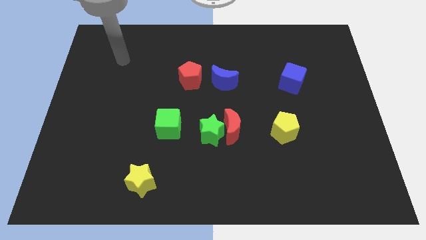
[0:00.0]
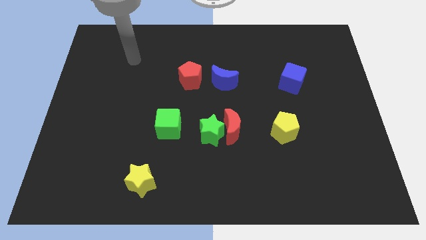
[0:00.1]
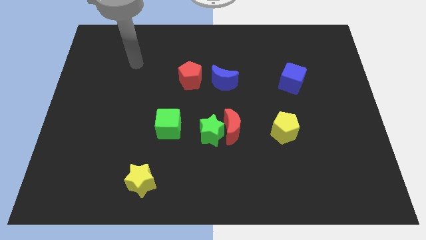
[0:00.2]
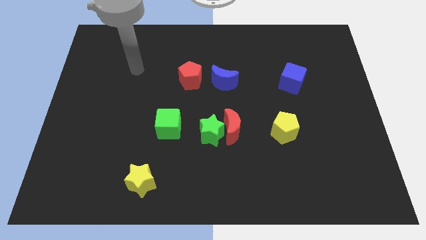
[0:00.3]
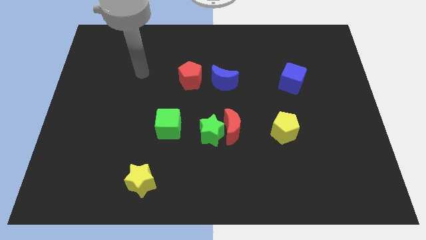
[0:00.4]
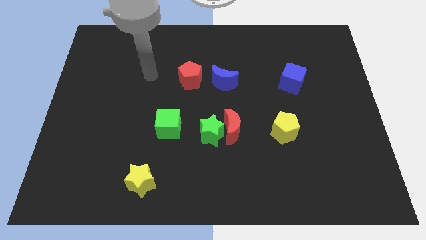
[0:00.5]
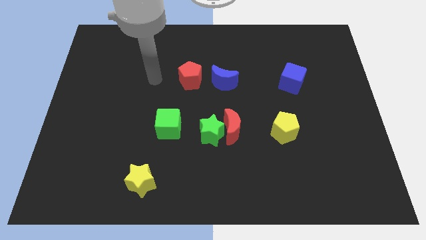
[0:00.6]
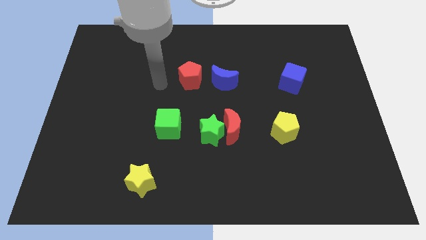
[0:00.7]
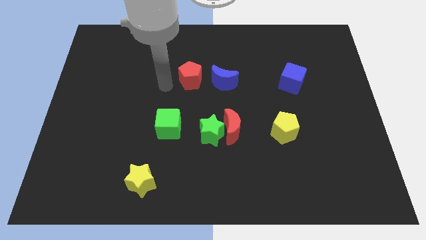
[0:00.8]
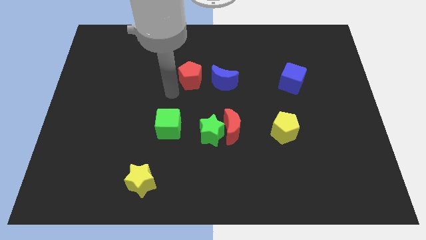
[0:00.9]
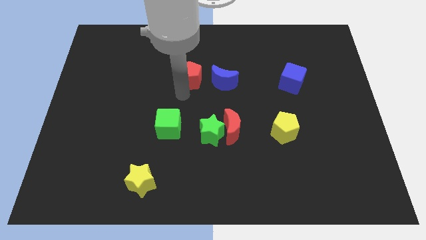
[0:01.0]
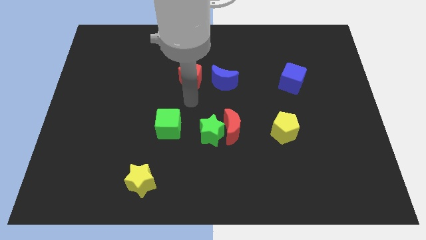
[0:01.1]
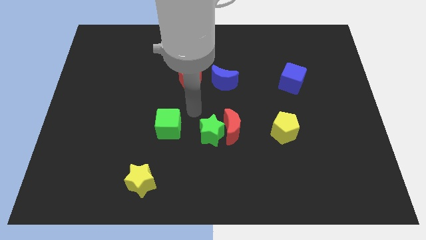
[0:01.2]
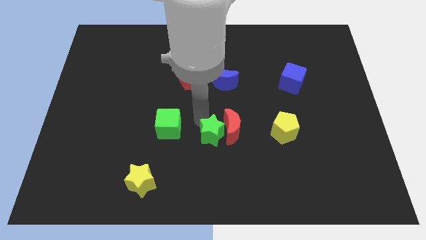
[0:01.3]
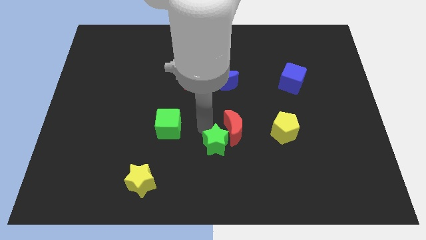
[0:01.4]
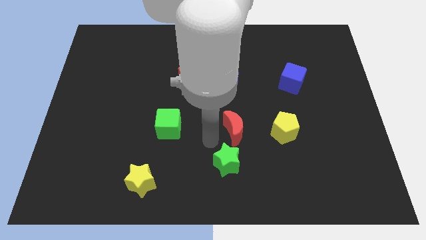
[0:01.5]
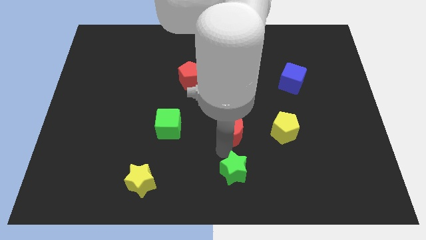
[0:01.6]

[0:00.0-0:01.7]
pull the red moon apart from the green star

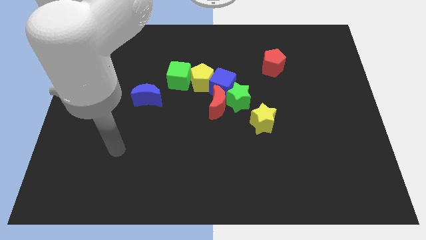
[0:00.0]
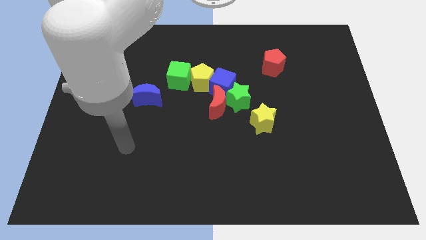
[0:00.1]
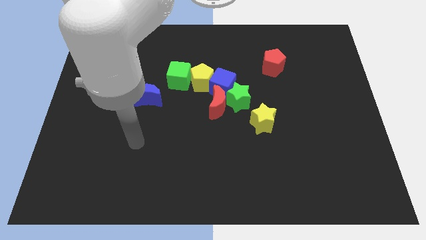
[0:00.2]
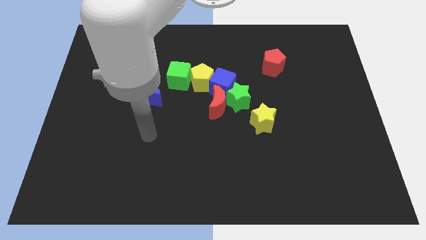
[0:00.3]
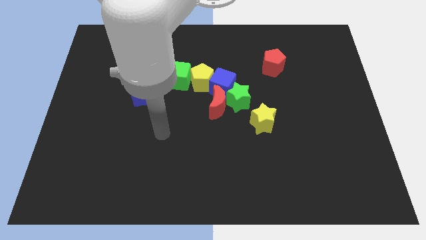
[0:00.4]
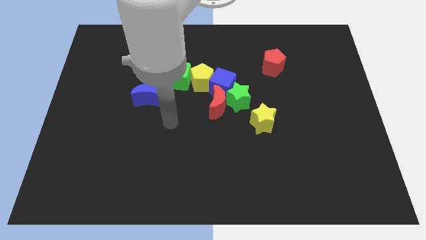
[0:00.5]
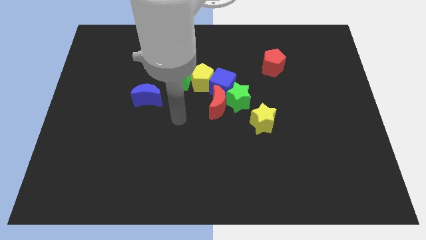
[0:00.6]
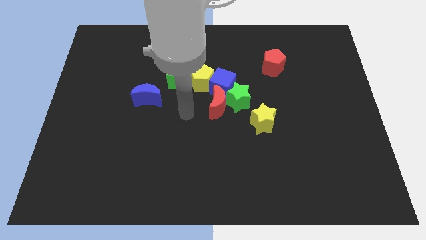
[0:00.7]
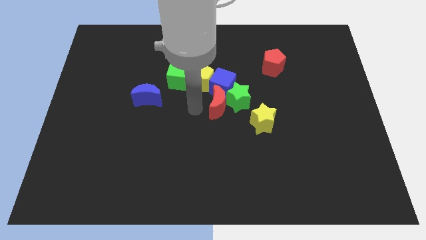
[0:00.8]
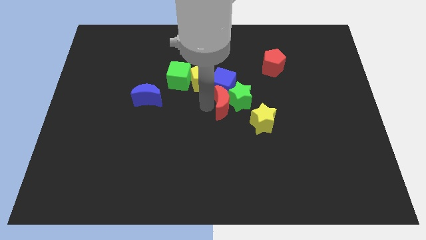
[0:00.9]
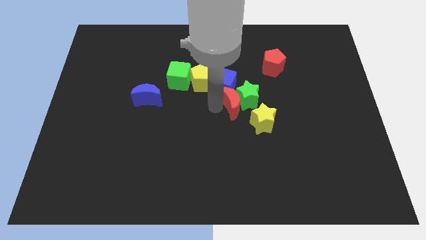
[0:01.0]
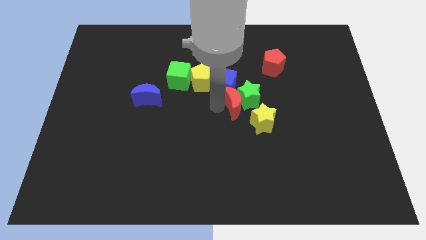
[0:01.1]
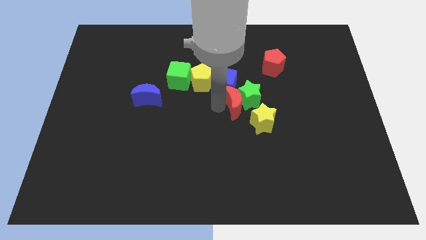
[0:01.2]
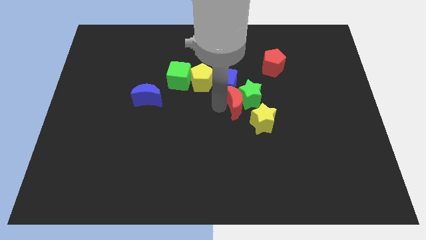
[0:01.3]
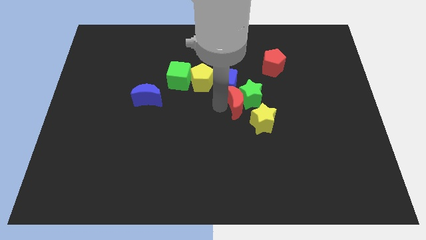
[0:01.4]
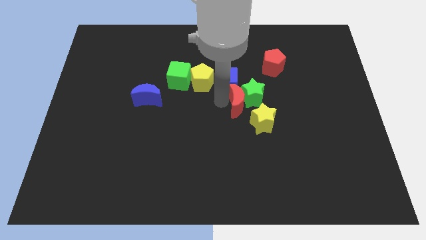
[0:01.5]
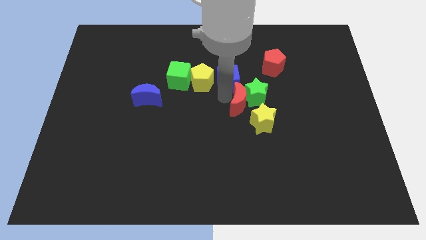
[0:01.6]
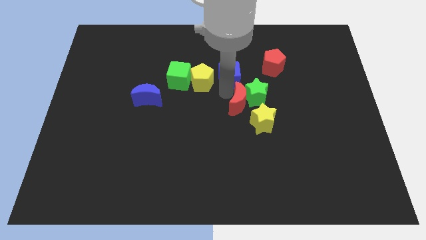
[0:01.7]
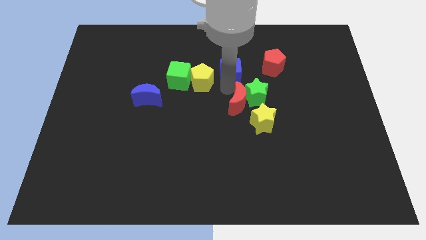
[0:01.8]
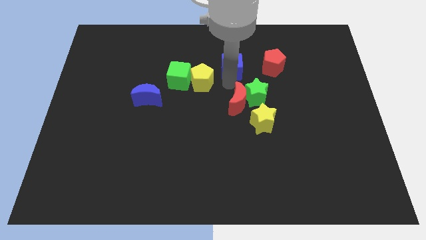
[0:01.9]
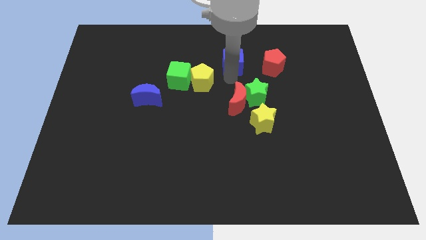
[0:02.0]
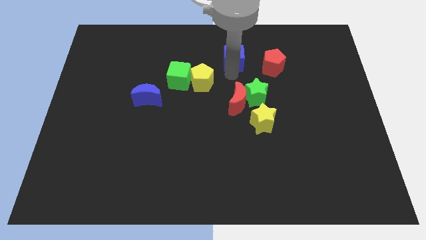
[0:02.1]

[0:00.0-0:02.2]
move the blue cube away from the group of blocks

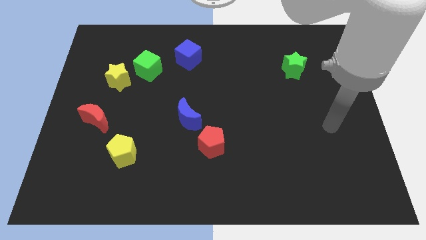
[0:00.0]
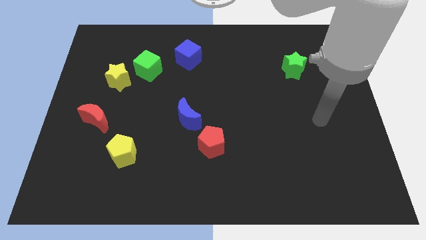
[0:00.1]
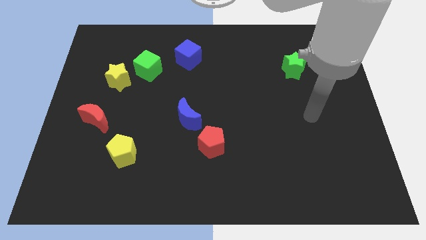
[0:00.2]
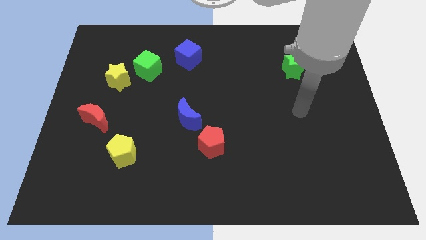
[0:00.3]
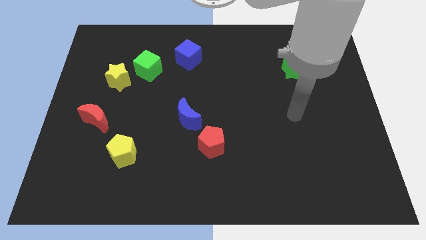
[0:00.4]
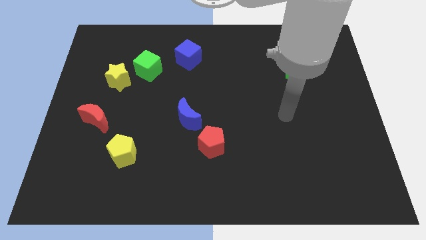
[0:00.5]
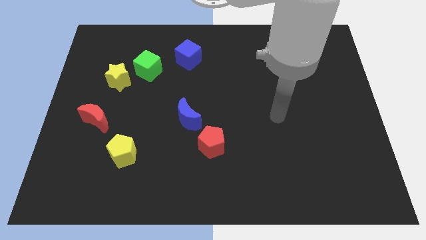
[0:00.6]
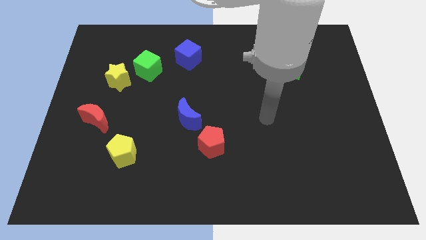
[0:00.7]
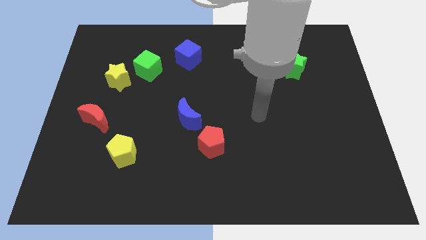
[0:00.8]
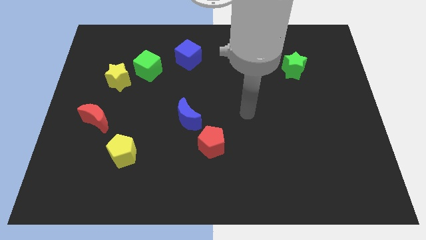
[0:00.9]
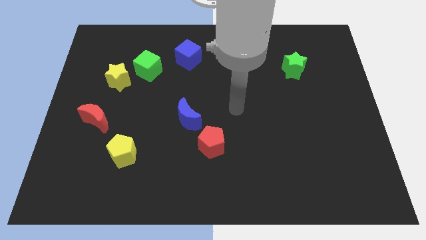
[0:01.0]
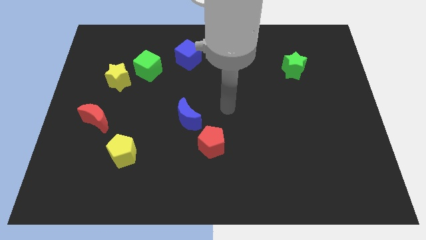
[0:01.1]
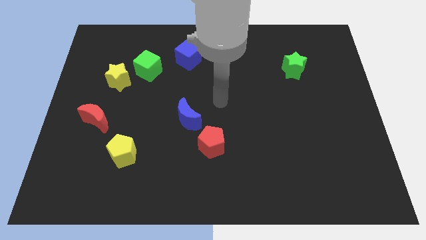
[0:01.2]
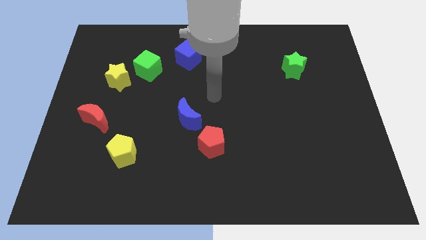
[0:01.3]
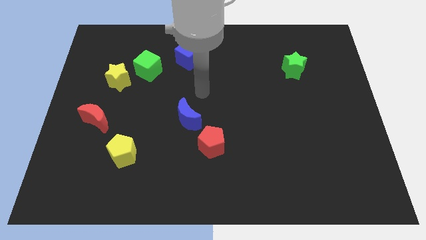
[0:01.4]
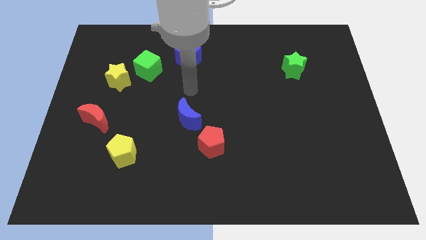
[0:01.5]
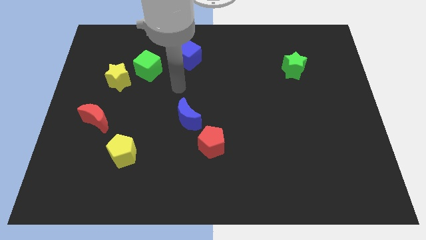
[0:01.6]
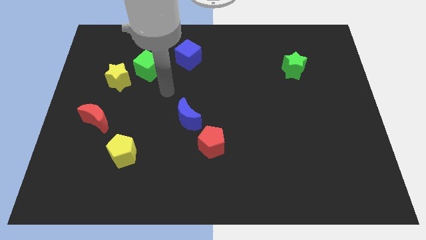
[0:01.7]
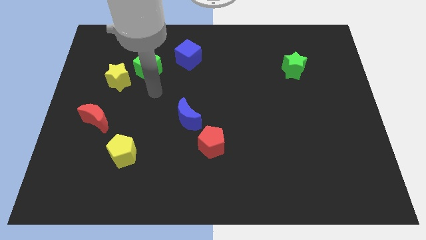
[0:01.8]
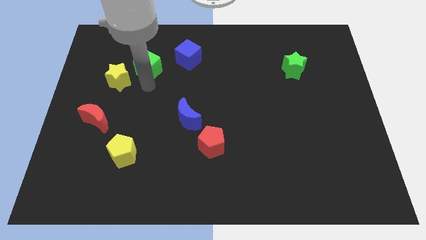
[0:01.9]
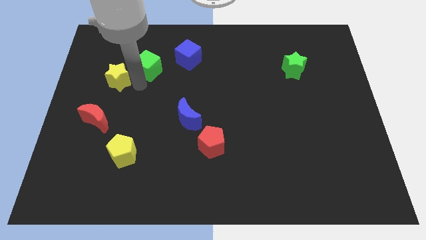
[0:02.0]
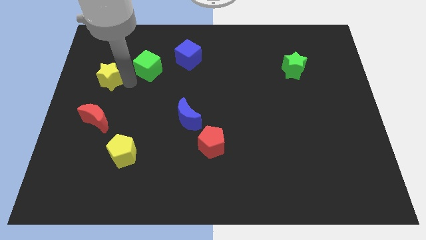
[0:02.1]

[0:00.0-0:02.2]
move the green cube away from the yellow star

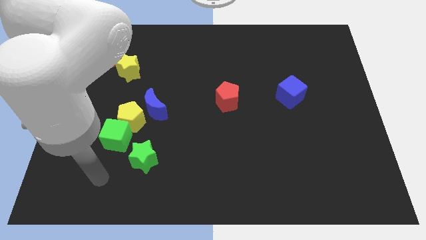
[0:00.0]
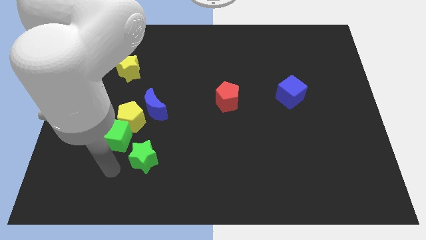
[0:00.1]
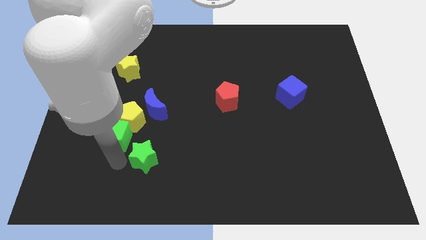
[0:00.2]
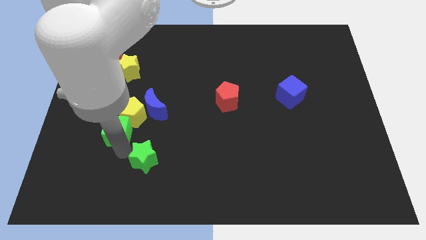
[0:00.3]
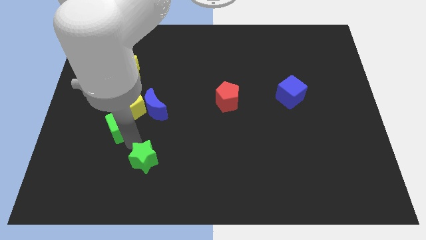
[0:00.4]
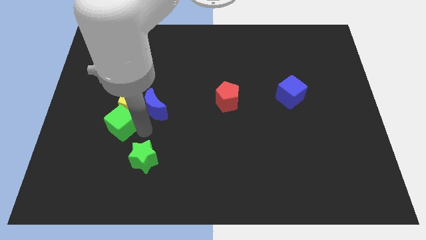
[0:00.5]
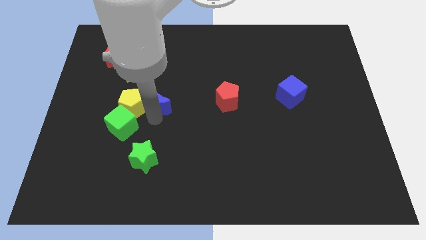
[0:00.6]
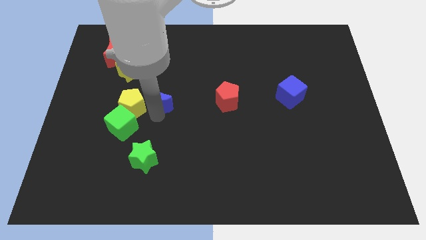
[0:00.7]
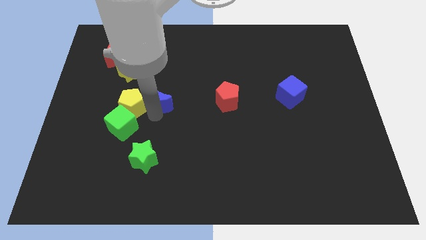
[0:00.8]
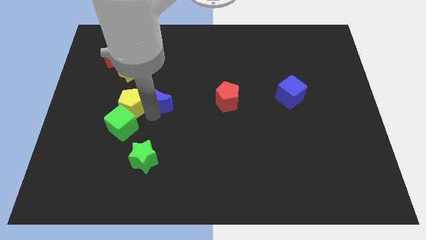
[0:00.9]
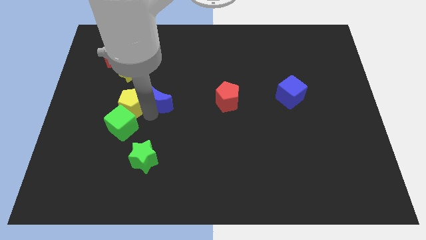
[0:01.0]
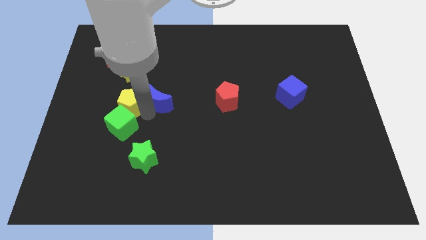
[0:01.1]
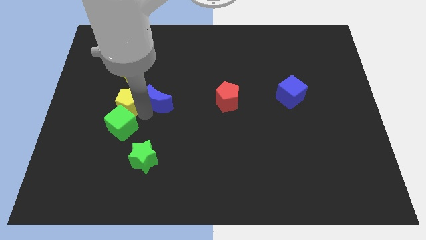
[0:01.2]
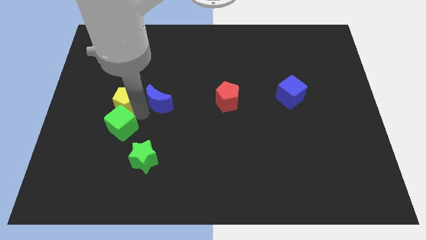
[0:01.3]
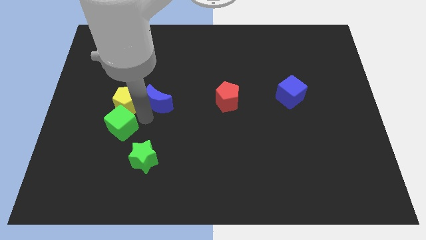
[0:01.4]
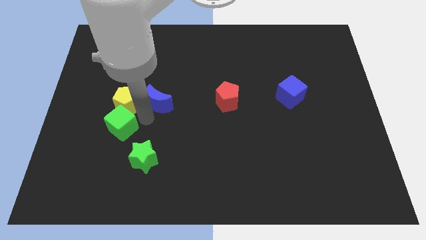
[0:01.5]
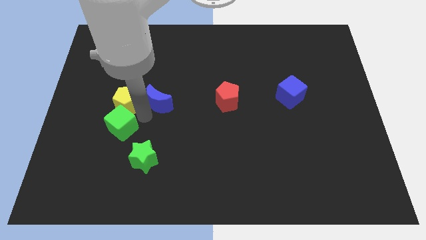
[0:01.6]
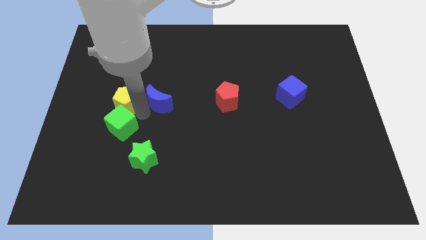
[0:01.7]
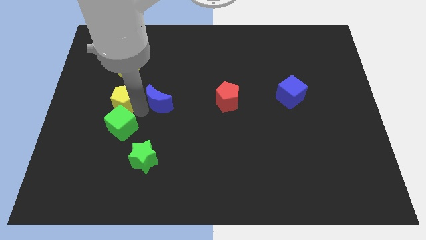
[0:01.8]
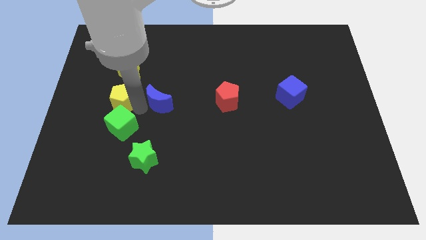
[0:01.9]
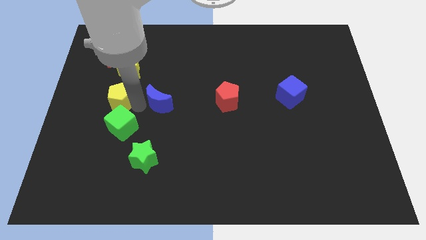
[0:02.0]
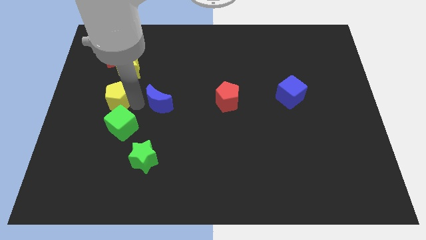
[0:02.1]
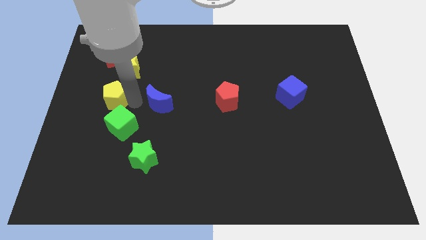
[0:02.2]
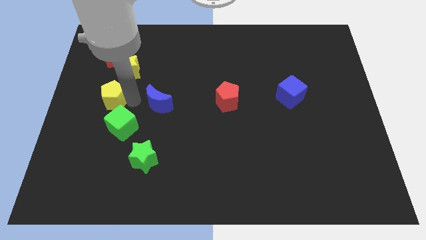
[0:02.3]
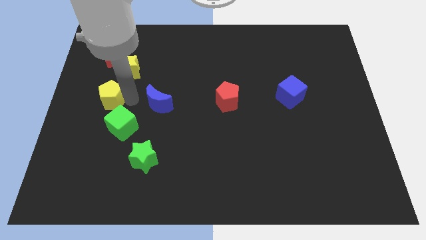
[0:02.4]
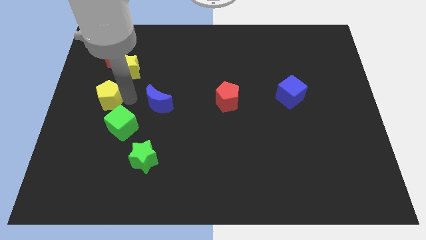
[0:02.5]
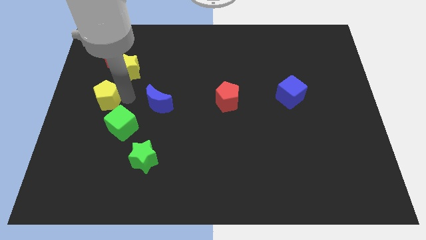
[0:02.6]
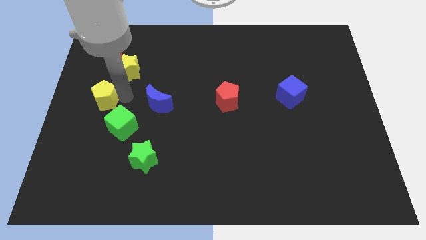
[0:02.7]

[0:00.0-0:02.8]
pull the yellow pentagon apart from the green cube and blue moon

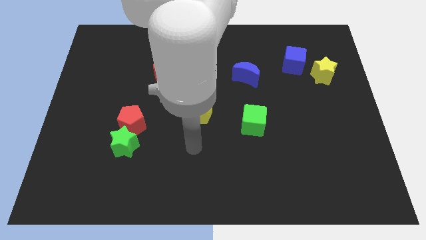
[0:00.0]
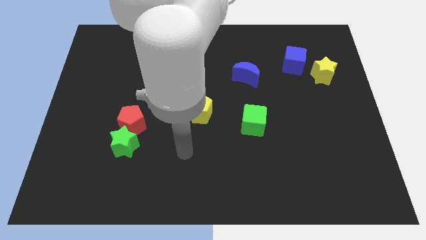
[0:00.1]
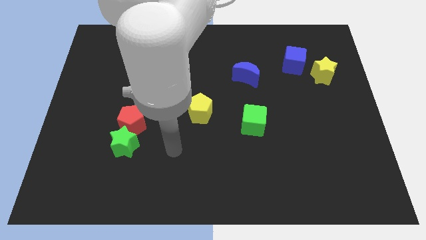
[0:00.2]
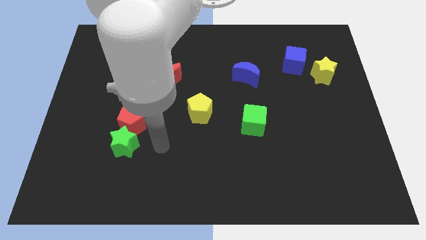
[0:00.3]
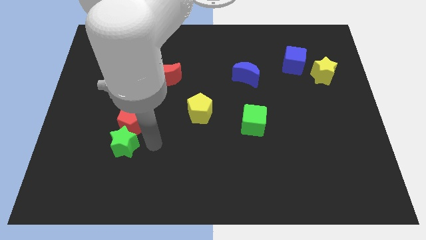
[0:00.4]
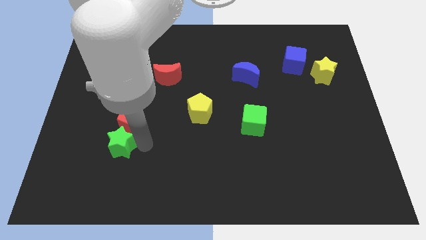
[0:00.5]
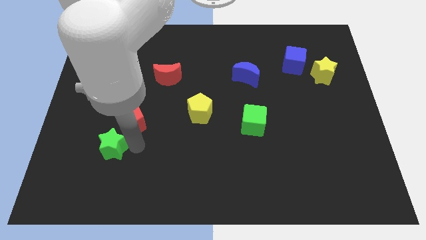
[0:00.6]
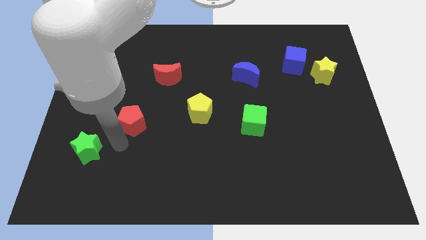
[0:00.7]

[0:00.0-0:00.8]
move the red pentagon away from the green star
